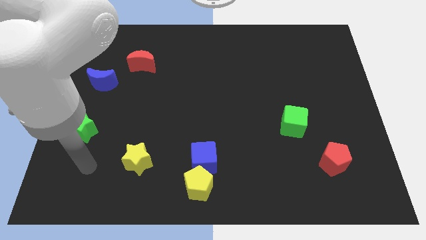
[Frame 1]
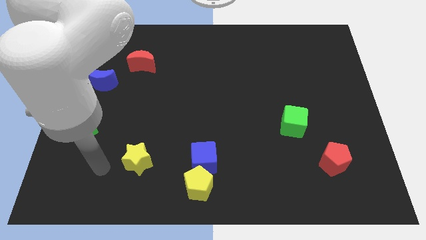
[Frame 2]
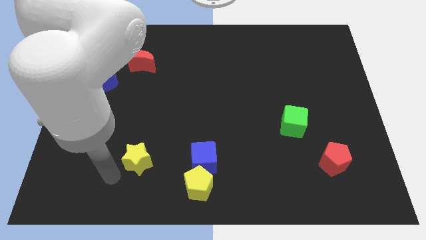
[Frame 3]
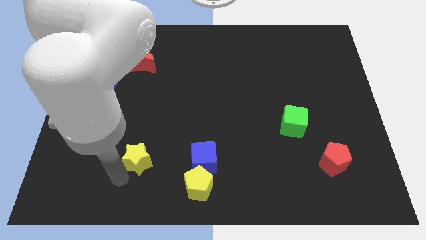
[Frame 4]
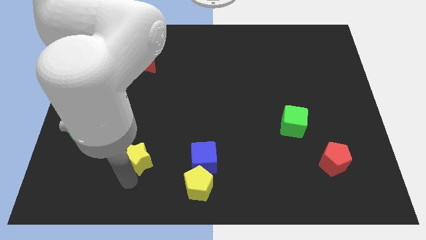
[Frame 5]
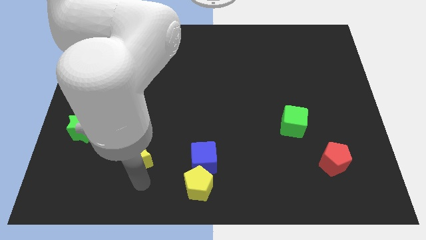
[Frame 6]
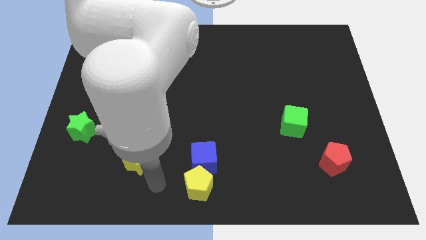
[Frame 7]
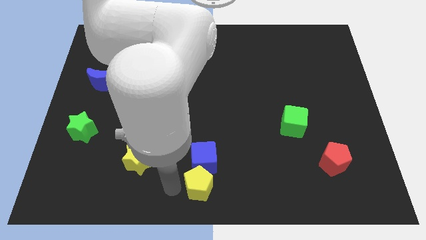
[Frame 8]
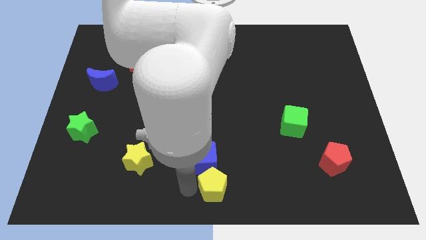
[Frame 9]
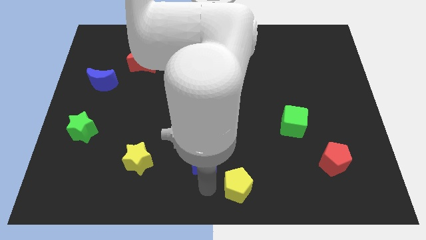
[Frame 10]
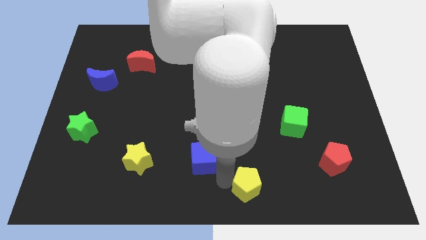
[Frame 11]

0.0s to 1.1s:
pull the blue cube apart from the yellow pentagon

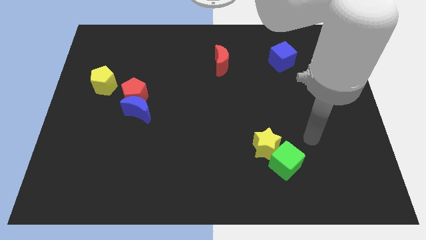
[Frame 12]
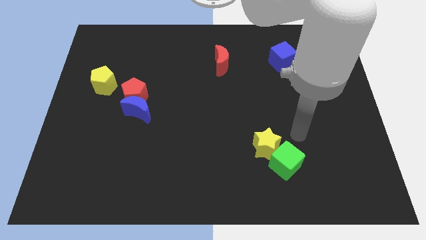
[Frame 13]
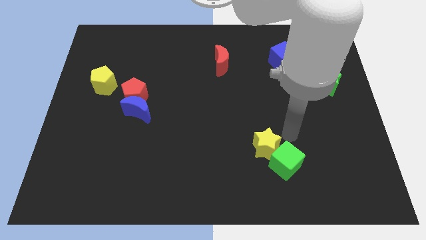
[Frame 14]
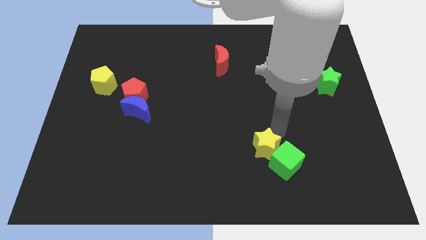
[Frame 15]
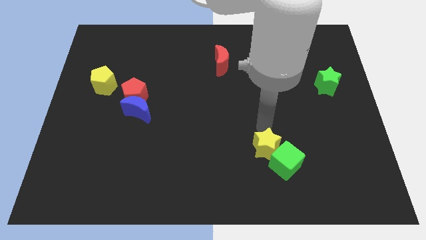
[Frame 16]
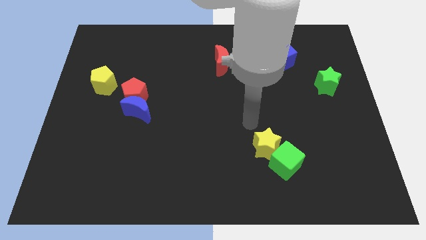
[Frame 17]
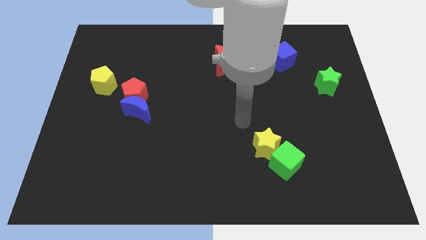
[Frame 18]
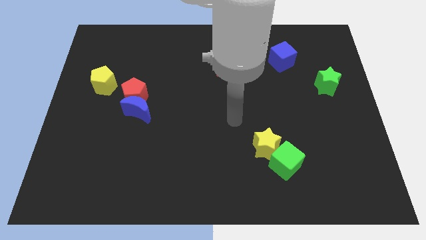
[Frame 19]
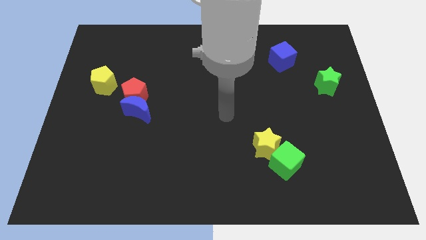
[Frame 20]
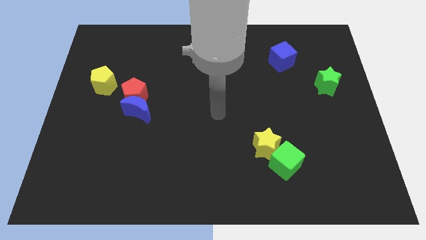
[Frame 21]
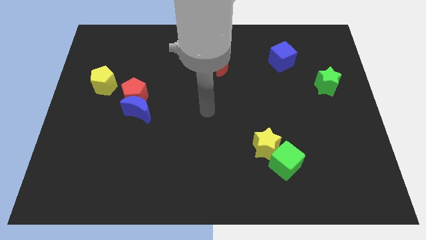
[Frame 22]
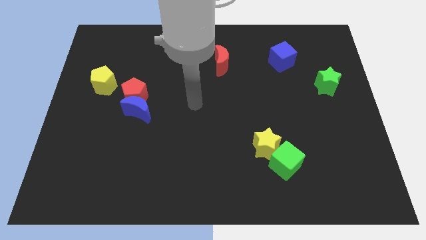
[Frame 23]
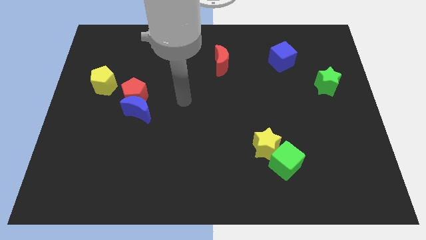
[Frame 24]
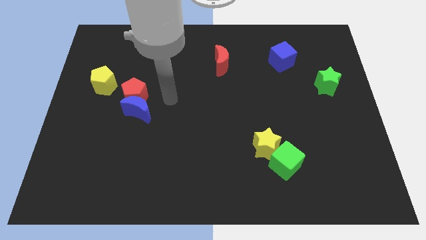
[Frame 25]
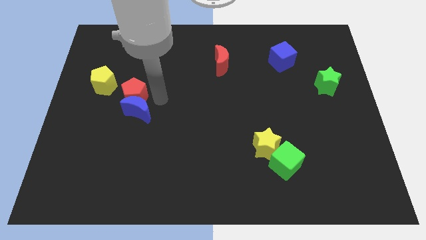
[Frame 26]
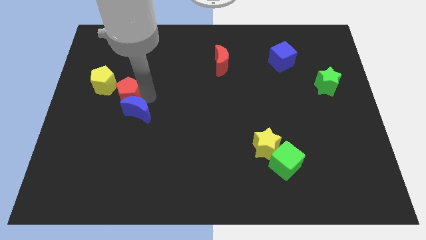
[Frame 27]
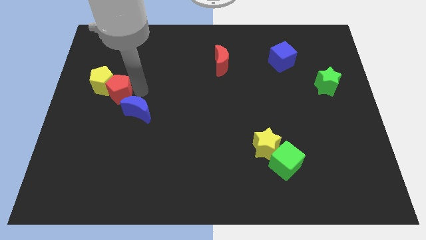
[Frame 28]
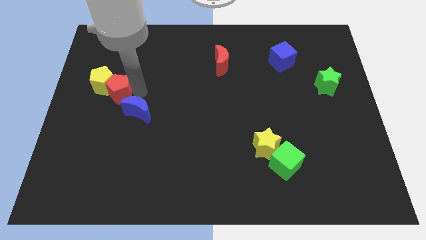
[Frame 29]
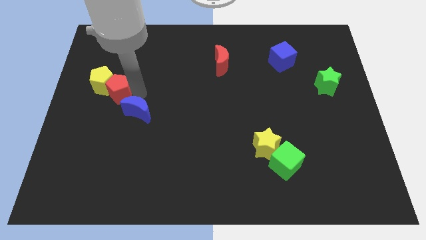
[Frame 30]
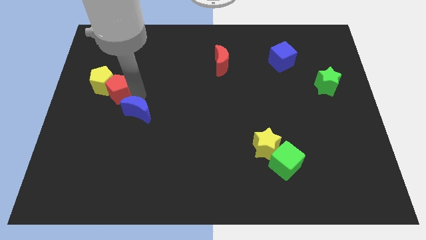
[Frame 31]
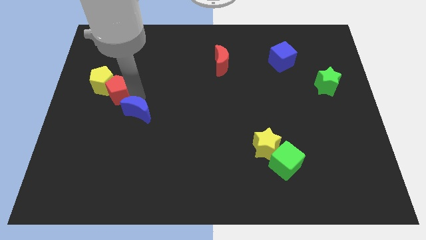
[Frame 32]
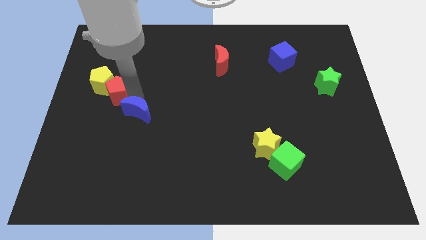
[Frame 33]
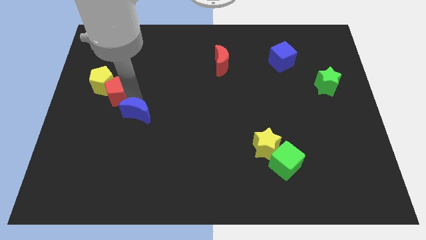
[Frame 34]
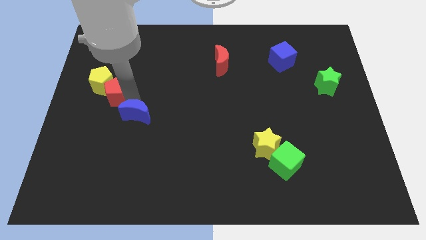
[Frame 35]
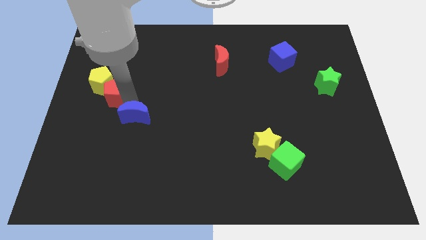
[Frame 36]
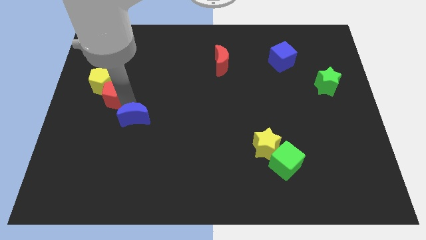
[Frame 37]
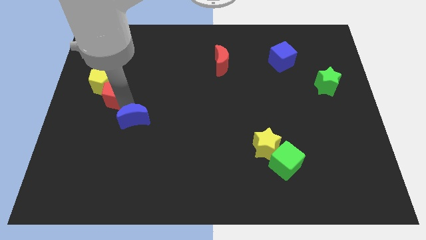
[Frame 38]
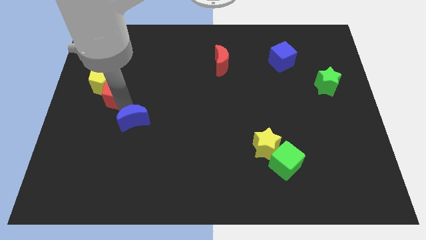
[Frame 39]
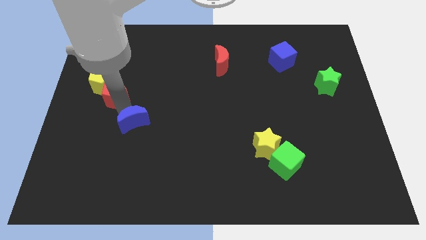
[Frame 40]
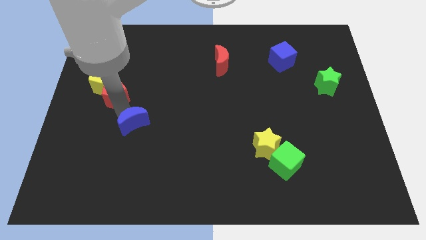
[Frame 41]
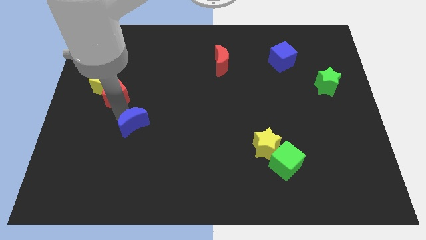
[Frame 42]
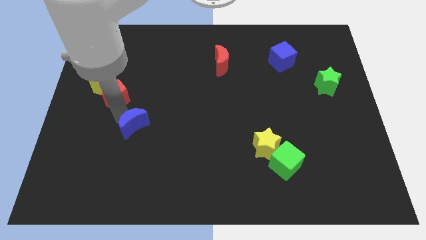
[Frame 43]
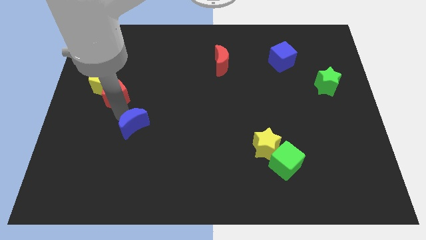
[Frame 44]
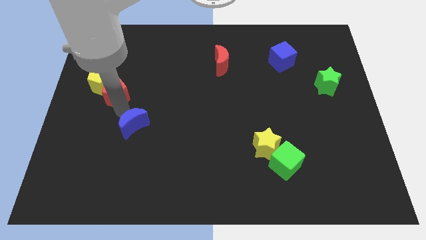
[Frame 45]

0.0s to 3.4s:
separate the blue moon from the red pentagon

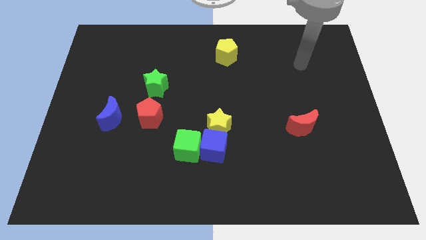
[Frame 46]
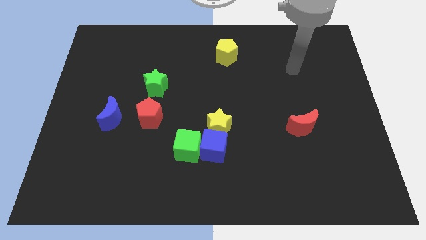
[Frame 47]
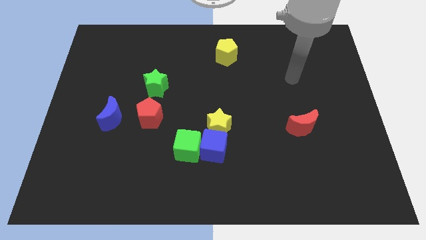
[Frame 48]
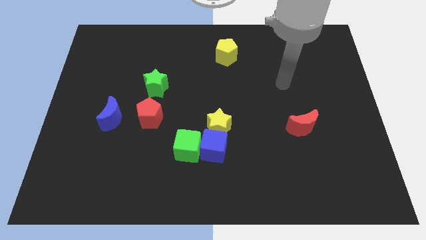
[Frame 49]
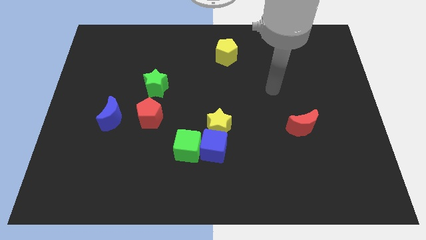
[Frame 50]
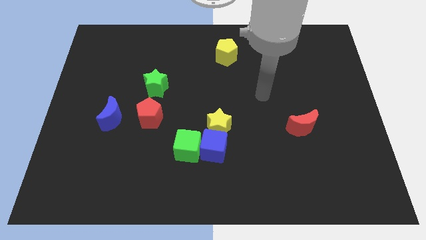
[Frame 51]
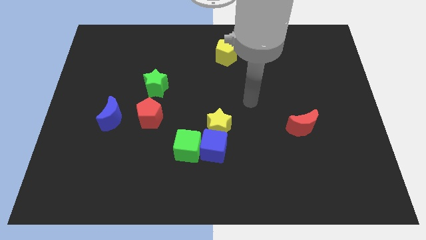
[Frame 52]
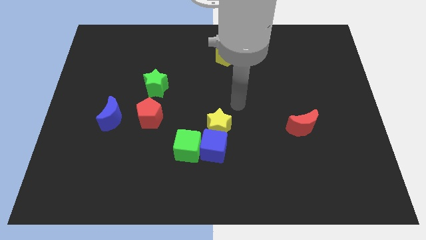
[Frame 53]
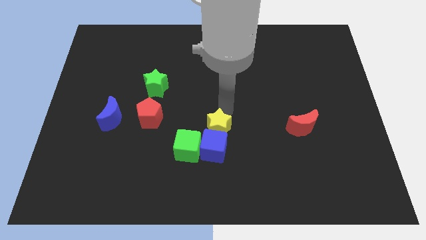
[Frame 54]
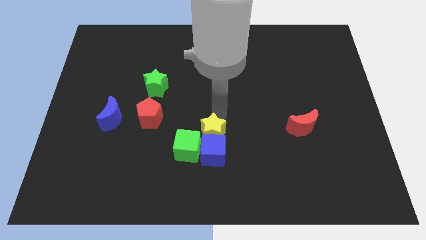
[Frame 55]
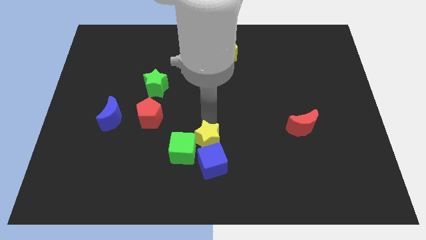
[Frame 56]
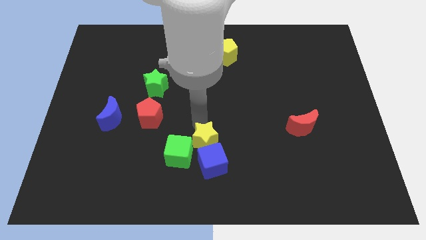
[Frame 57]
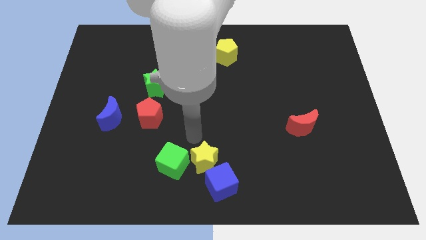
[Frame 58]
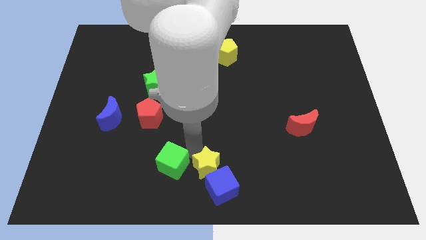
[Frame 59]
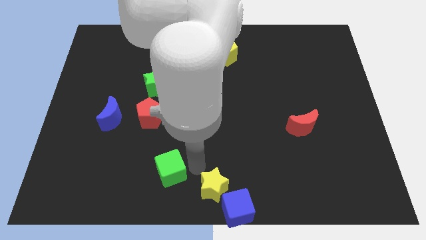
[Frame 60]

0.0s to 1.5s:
separate the blue cube from the green cube and yellow star

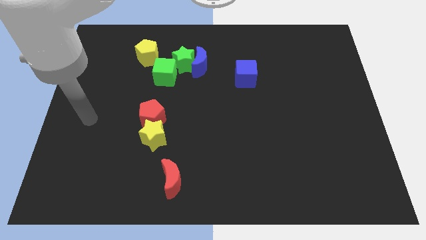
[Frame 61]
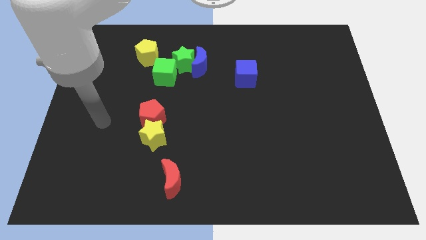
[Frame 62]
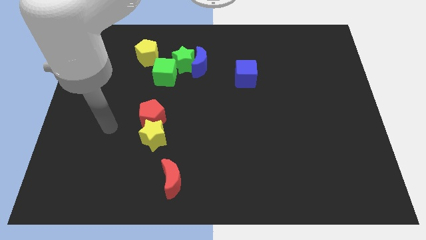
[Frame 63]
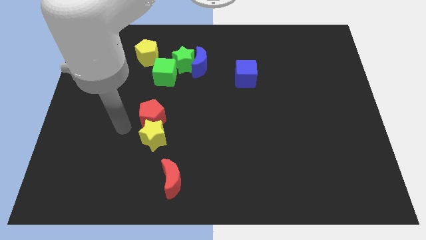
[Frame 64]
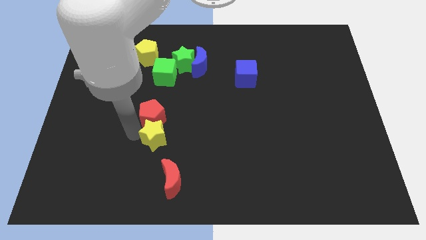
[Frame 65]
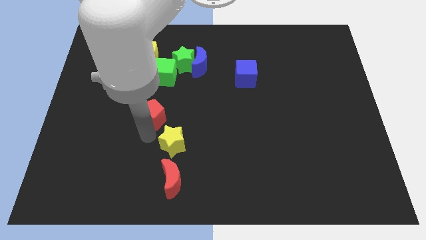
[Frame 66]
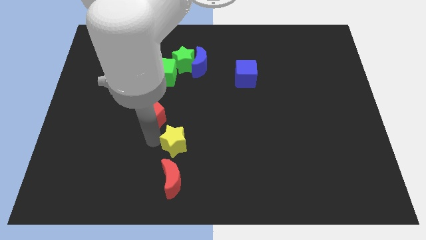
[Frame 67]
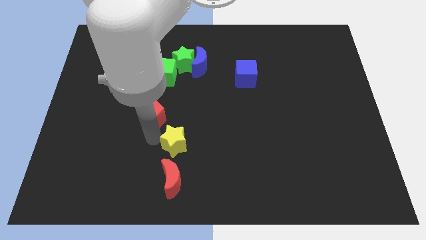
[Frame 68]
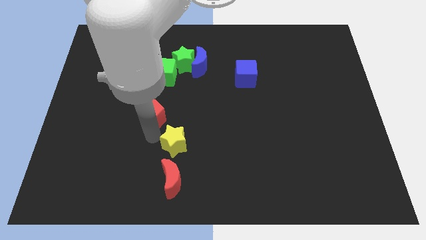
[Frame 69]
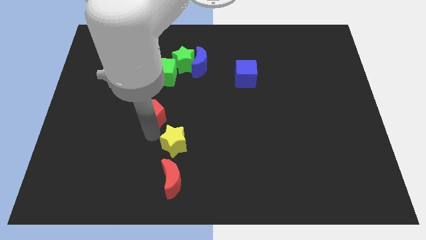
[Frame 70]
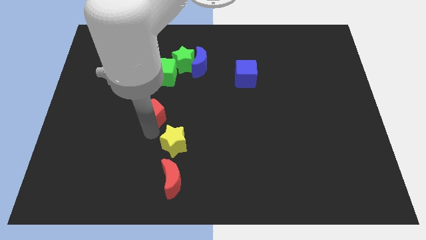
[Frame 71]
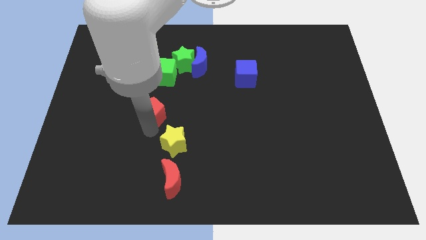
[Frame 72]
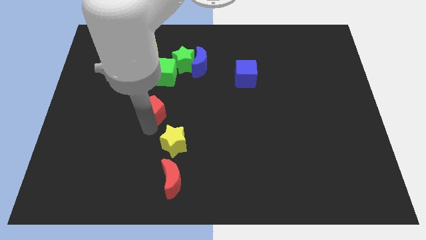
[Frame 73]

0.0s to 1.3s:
move the red pentagon away from the yellow star

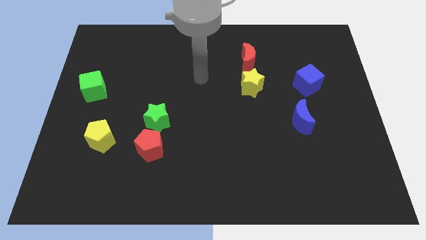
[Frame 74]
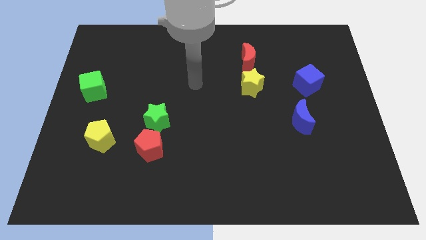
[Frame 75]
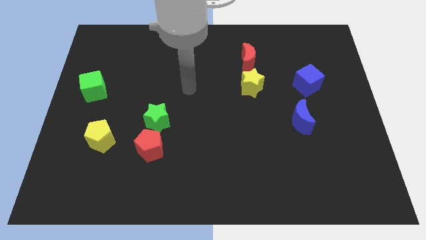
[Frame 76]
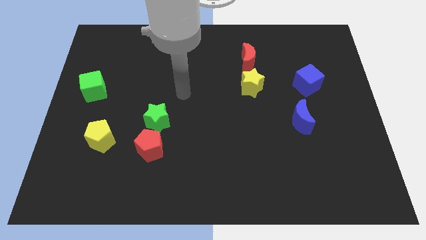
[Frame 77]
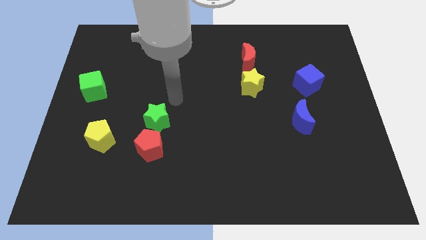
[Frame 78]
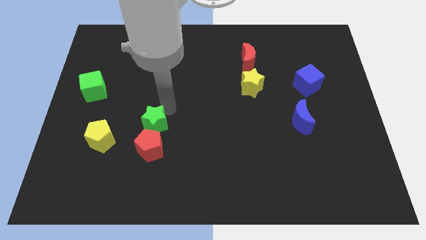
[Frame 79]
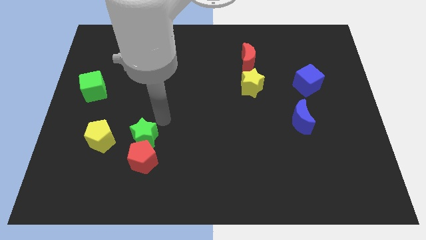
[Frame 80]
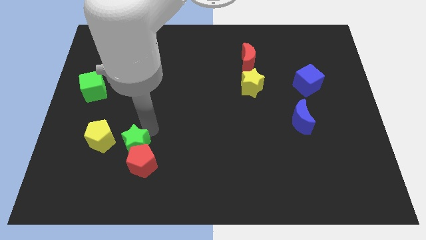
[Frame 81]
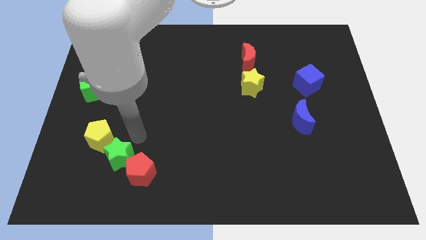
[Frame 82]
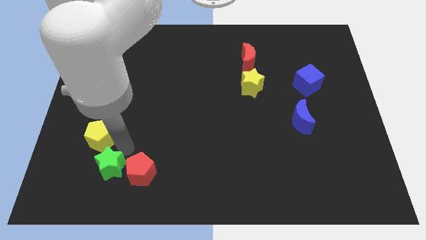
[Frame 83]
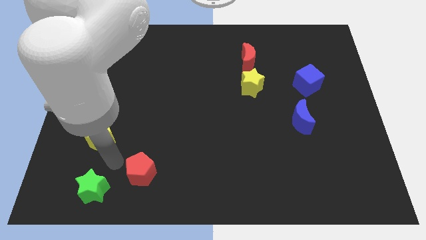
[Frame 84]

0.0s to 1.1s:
separate the red pentagon from the green star

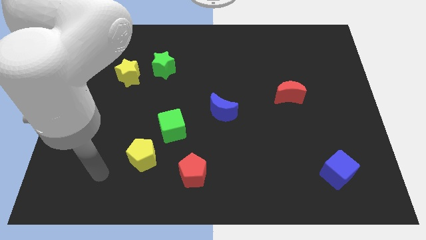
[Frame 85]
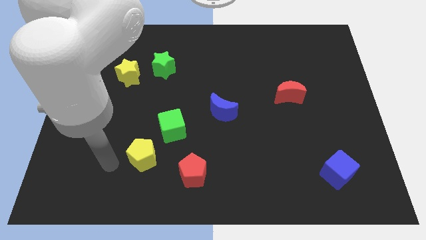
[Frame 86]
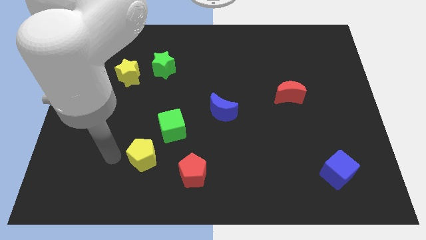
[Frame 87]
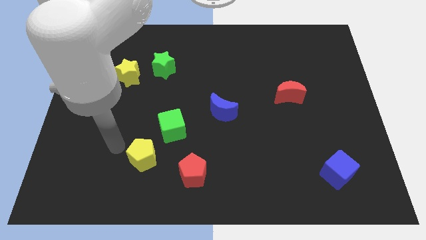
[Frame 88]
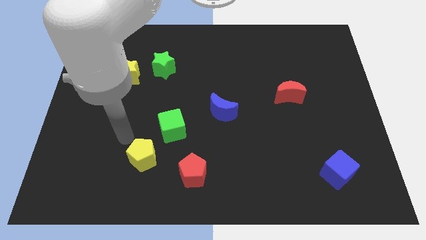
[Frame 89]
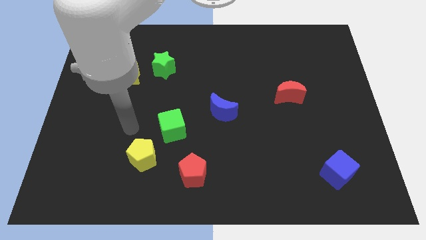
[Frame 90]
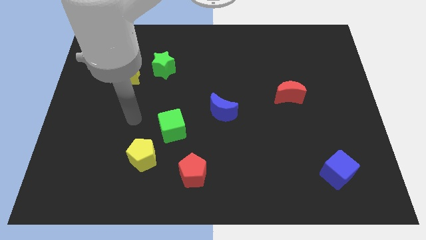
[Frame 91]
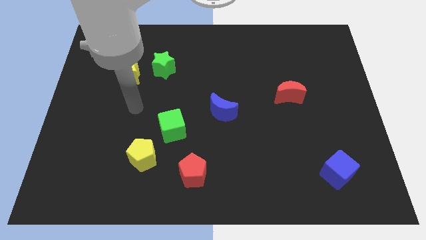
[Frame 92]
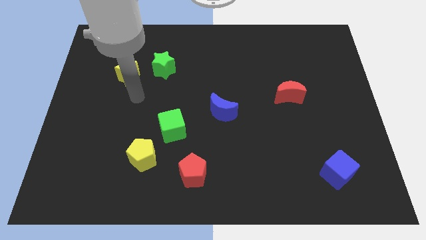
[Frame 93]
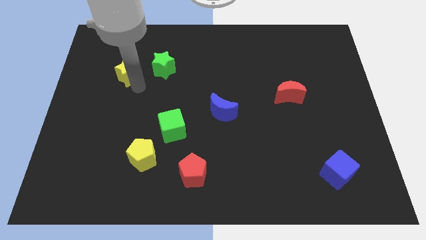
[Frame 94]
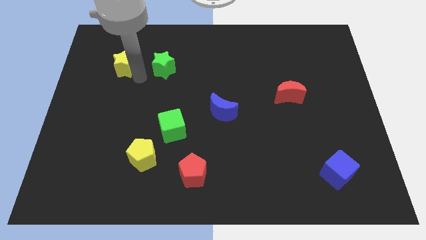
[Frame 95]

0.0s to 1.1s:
move the green star away from the yellow star
